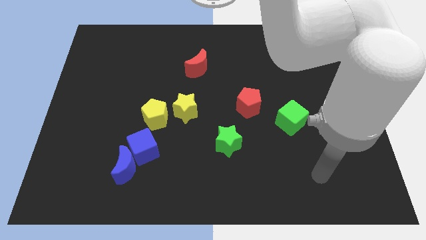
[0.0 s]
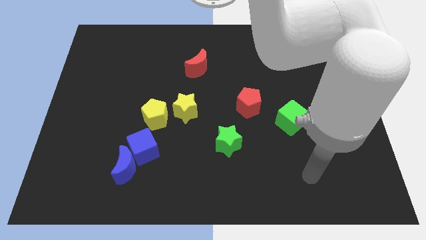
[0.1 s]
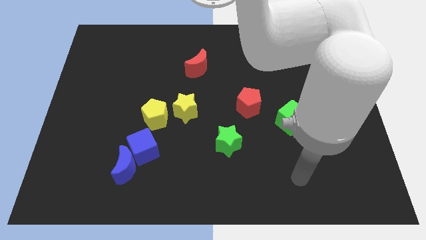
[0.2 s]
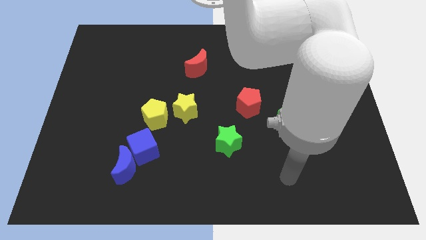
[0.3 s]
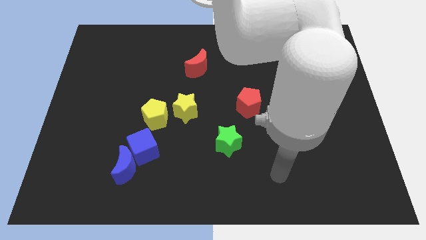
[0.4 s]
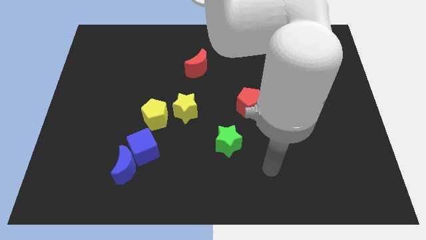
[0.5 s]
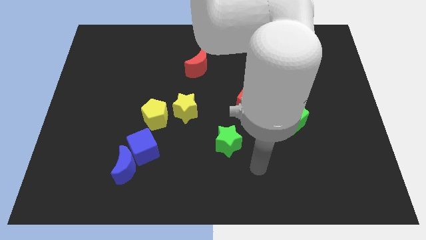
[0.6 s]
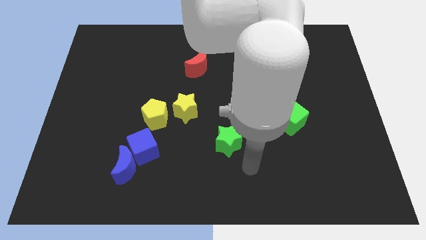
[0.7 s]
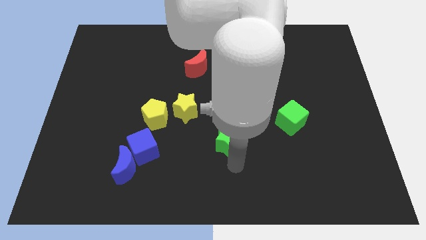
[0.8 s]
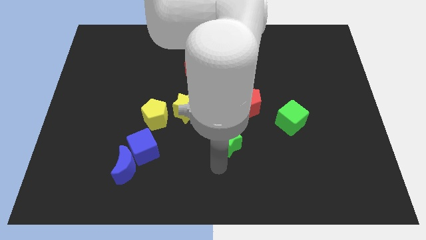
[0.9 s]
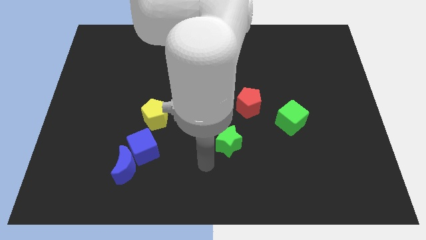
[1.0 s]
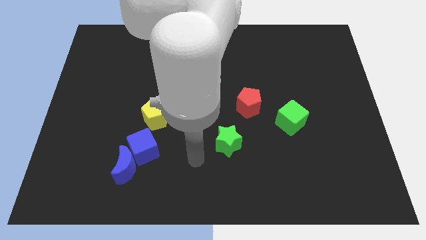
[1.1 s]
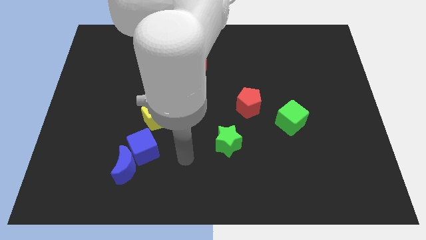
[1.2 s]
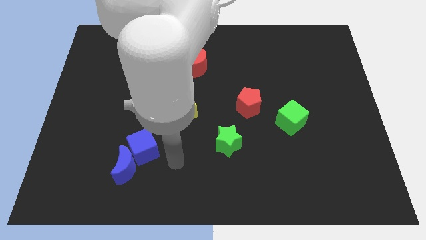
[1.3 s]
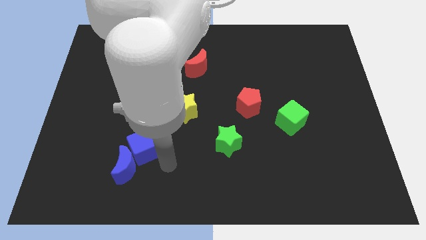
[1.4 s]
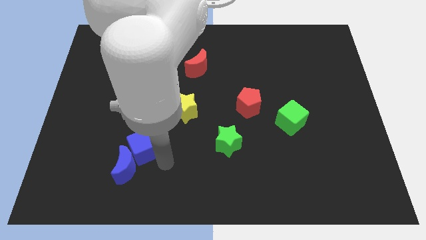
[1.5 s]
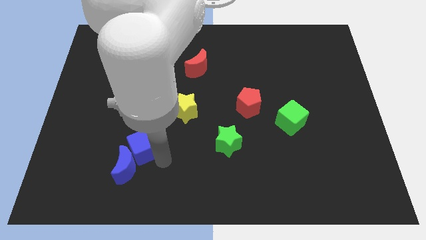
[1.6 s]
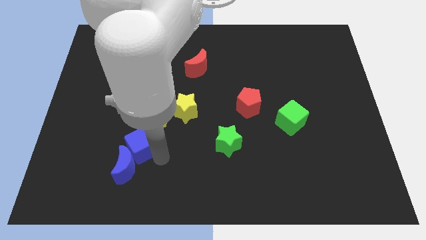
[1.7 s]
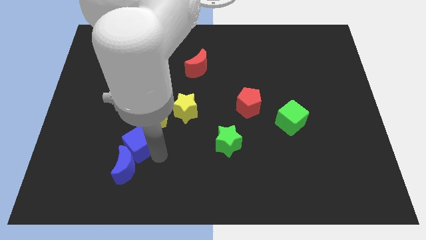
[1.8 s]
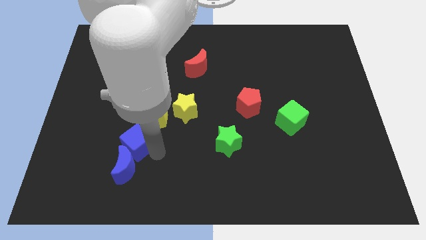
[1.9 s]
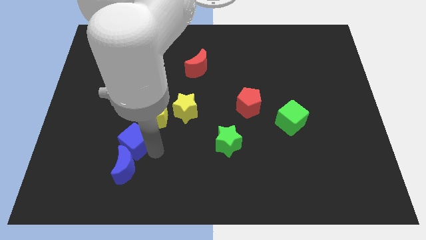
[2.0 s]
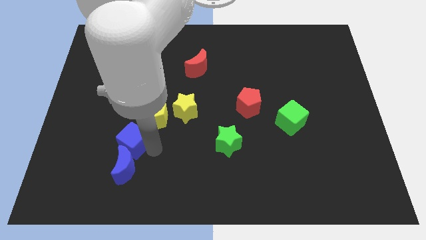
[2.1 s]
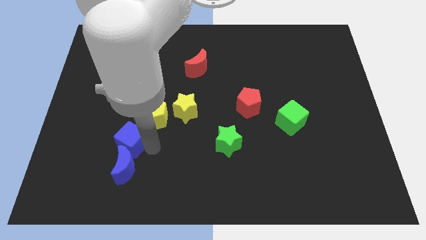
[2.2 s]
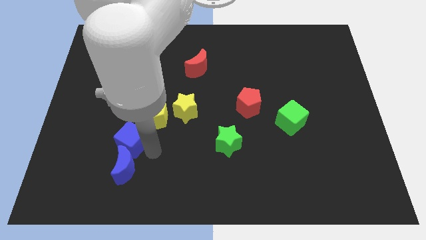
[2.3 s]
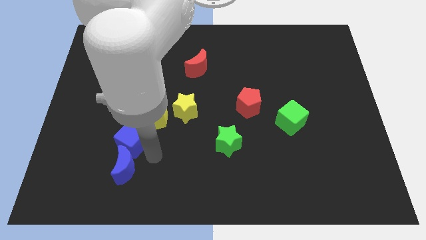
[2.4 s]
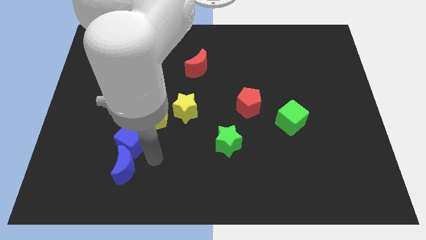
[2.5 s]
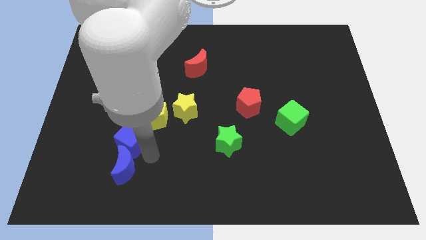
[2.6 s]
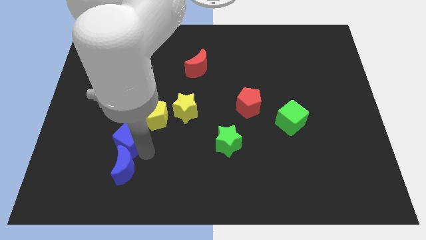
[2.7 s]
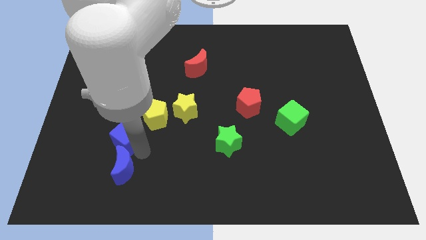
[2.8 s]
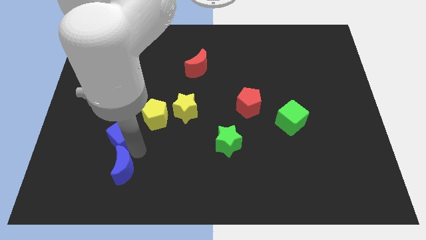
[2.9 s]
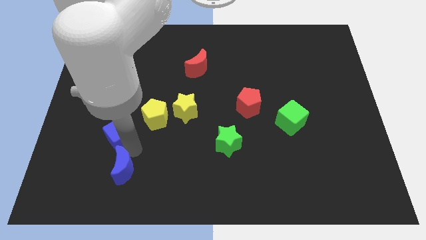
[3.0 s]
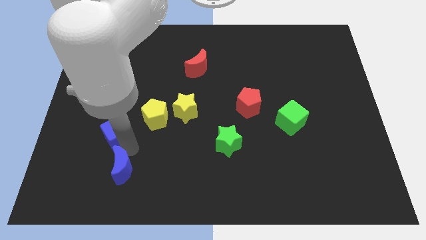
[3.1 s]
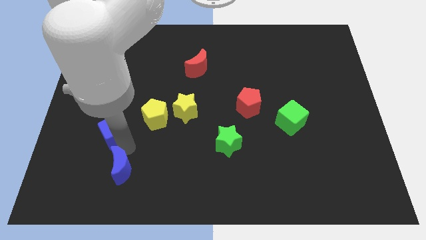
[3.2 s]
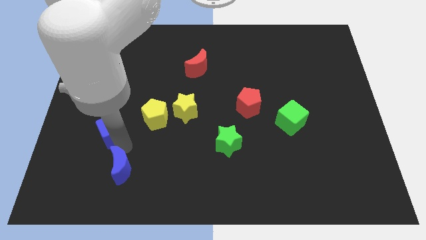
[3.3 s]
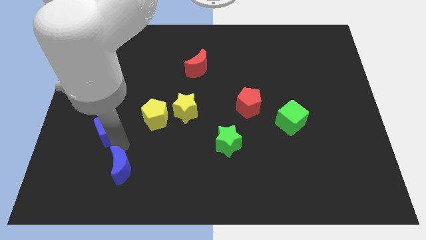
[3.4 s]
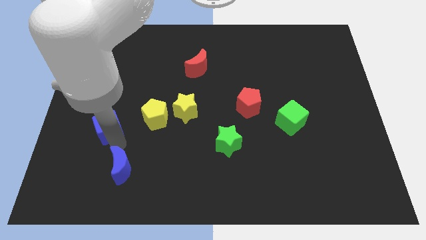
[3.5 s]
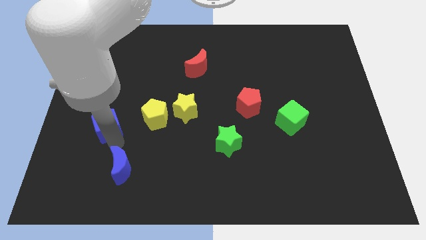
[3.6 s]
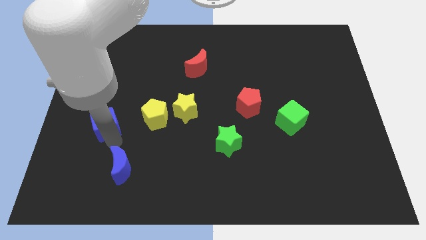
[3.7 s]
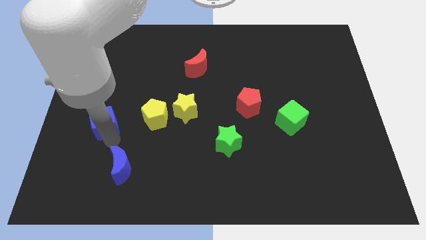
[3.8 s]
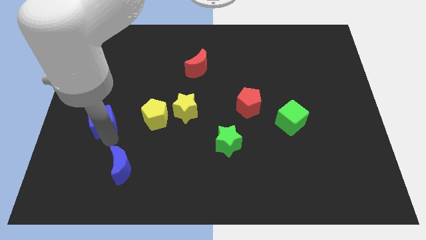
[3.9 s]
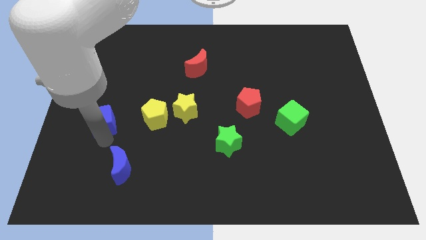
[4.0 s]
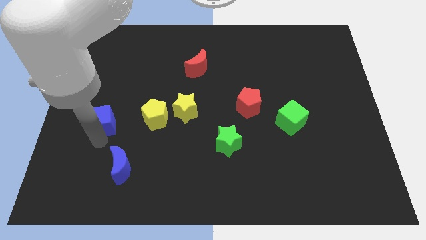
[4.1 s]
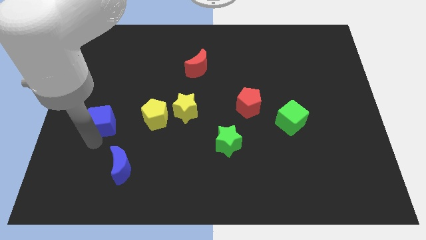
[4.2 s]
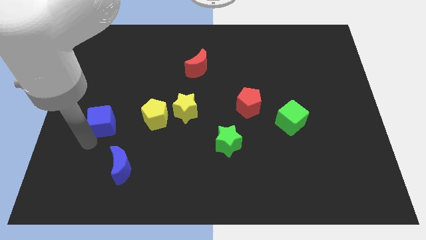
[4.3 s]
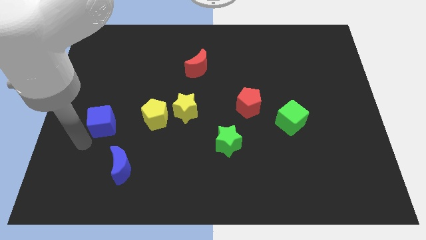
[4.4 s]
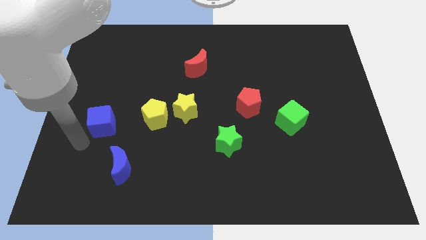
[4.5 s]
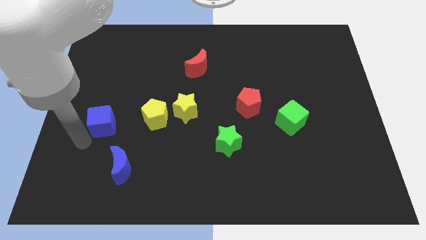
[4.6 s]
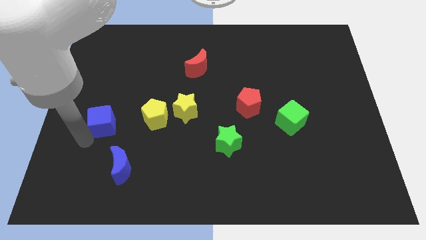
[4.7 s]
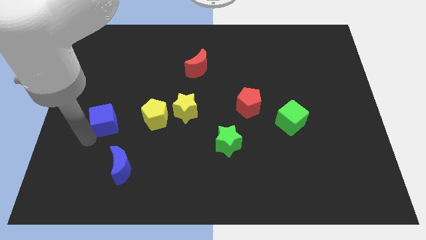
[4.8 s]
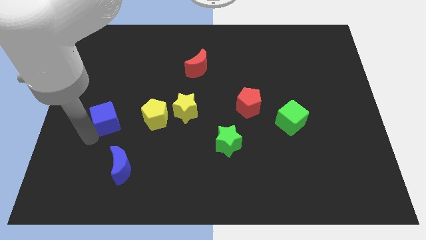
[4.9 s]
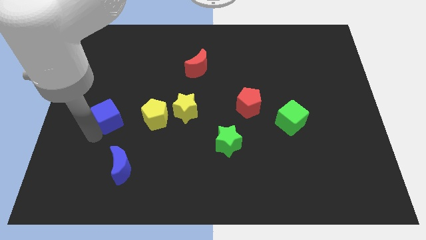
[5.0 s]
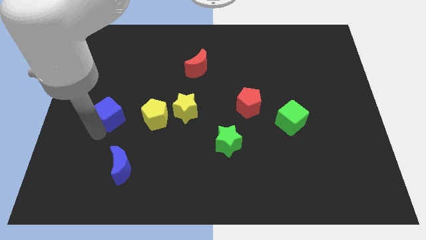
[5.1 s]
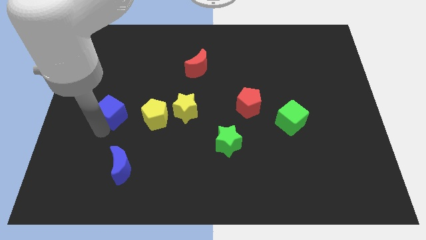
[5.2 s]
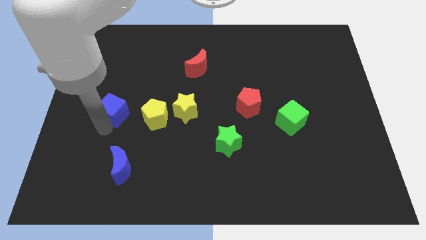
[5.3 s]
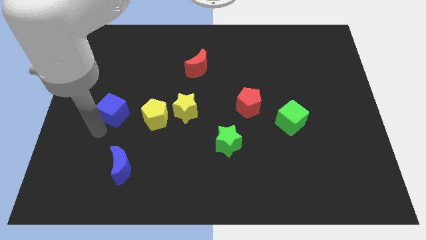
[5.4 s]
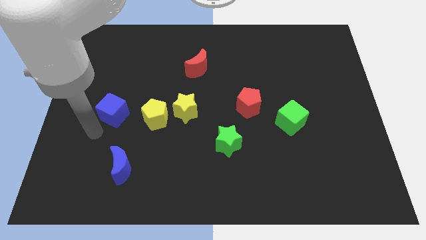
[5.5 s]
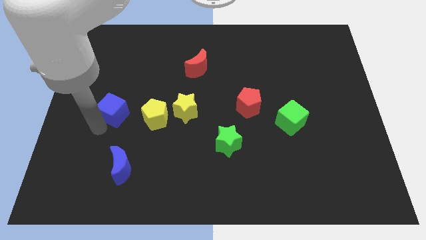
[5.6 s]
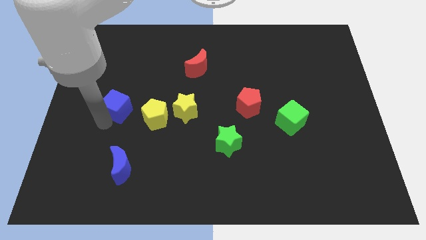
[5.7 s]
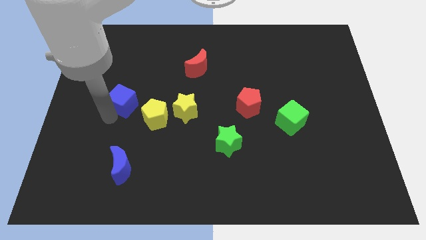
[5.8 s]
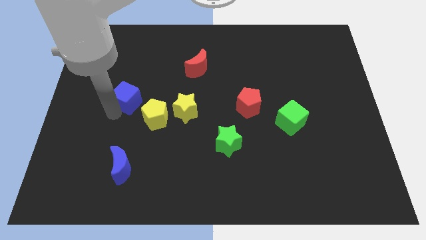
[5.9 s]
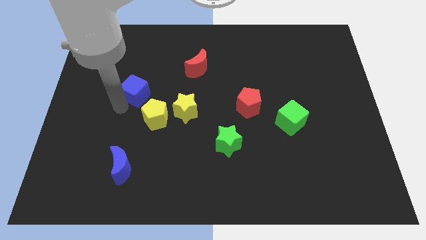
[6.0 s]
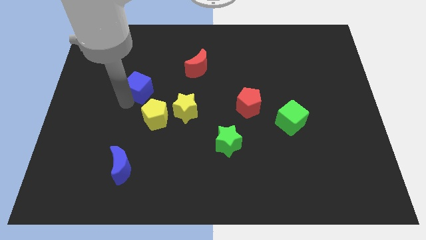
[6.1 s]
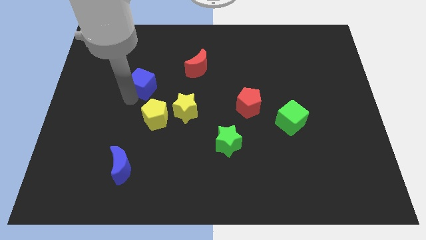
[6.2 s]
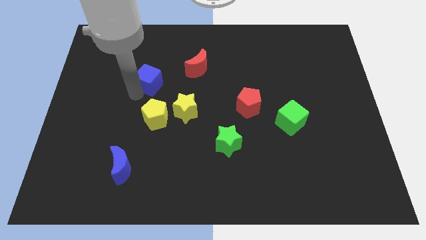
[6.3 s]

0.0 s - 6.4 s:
push the blue cube to the left side of the red moon
